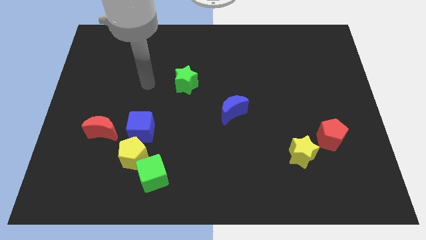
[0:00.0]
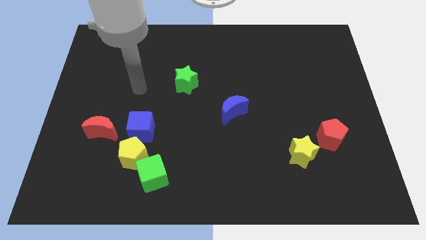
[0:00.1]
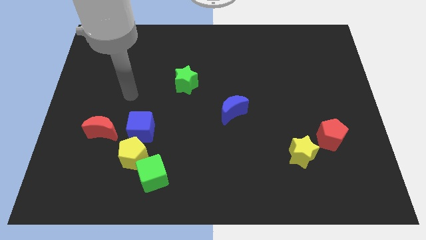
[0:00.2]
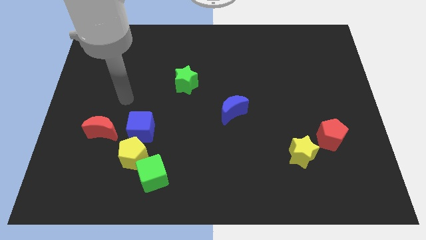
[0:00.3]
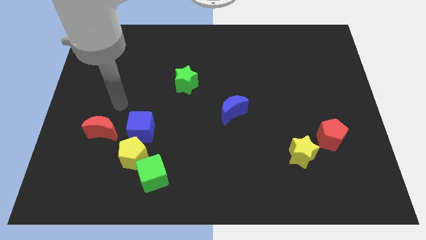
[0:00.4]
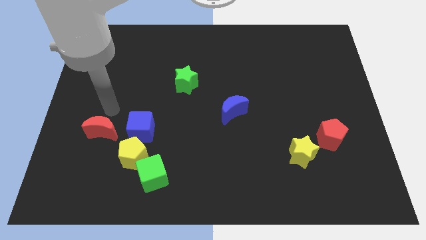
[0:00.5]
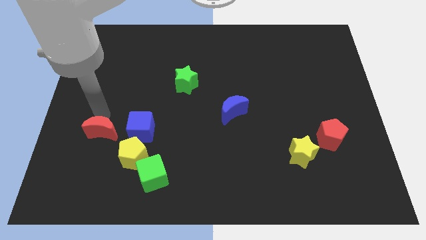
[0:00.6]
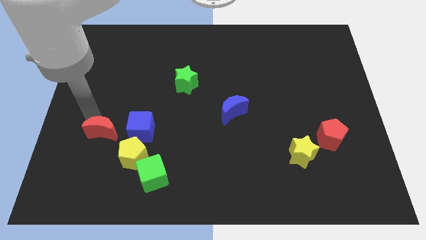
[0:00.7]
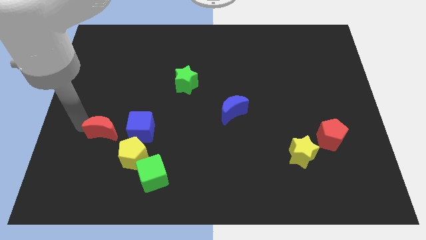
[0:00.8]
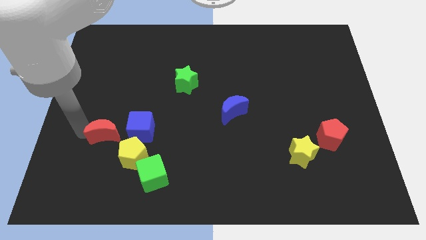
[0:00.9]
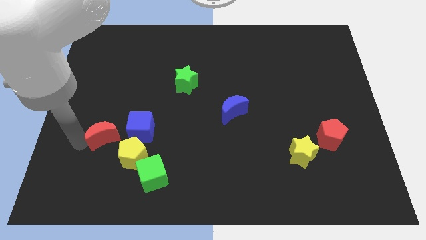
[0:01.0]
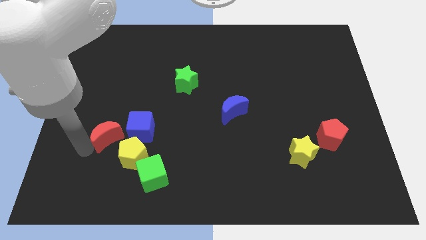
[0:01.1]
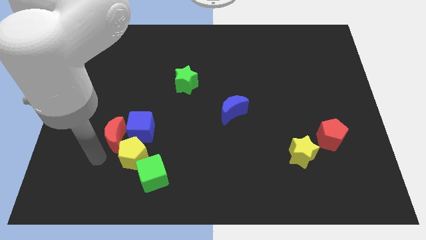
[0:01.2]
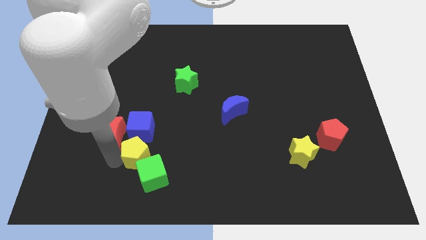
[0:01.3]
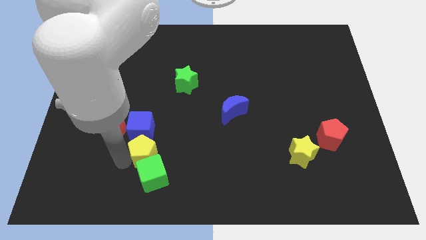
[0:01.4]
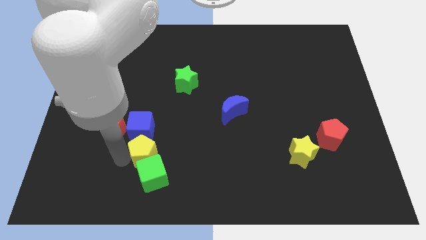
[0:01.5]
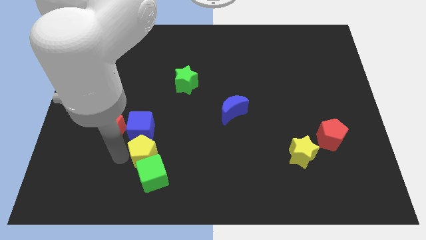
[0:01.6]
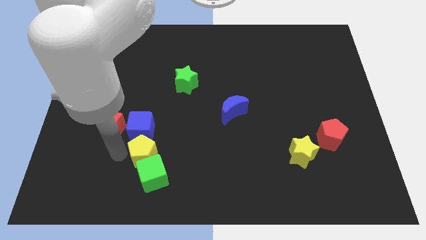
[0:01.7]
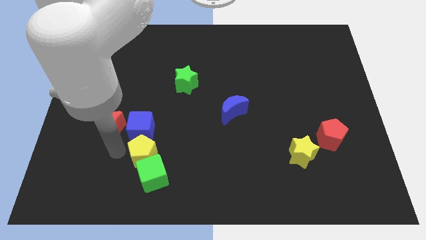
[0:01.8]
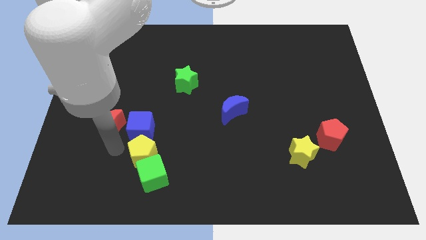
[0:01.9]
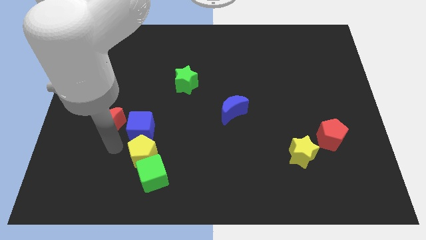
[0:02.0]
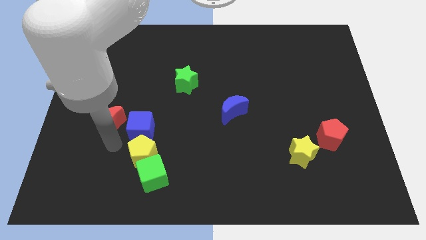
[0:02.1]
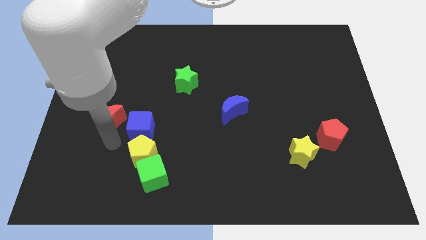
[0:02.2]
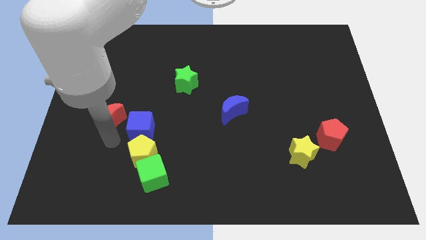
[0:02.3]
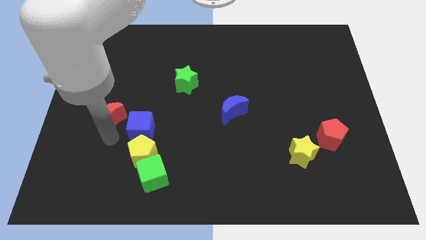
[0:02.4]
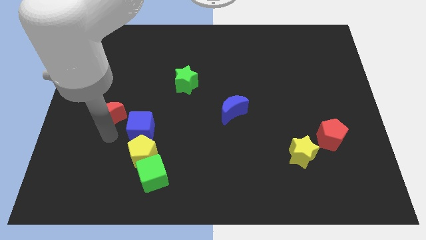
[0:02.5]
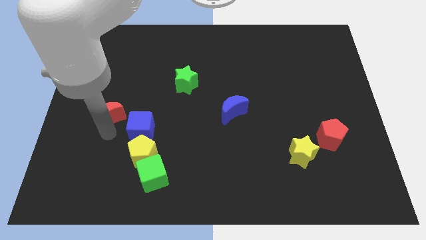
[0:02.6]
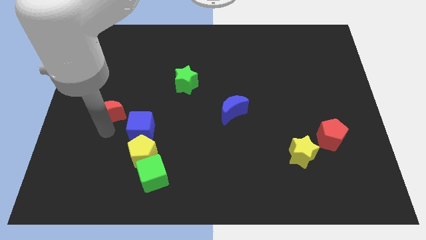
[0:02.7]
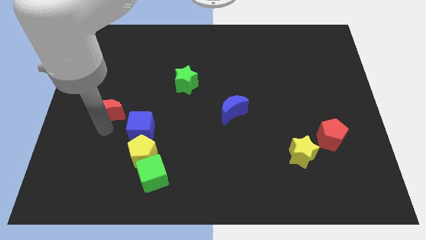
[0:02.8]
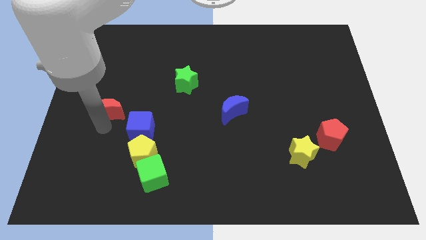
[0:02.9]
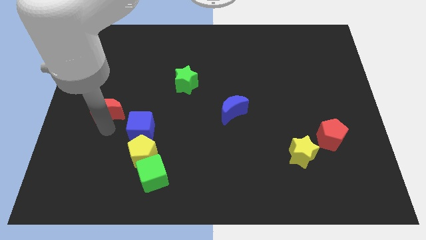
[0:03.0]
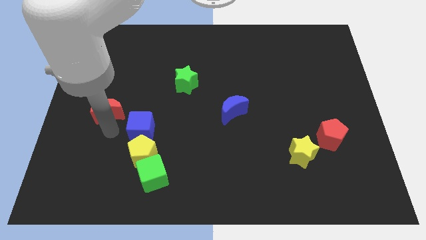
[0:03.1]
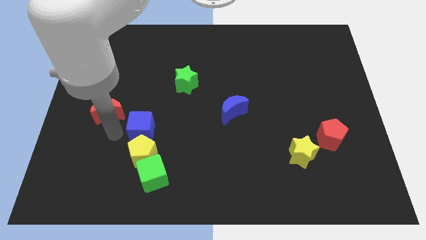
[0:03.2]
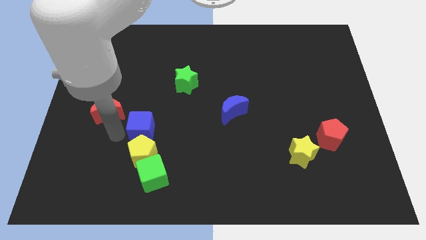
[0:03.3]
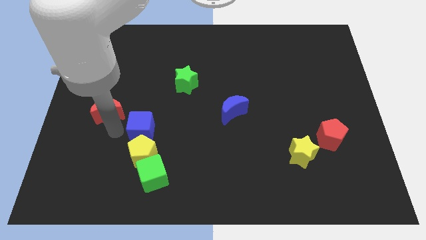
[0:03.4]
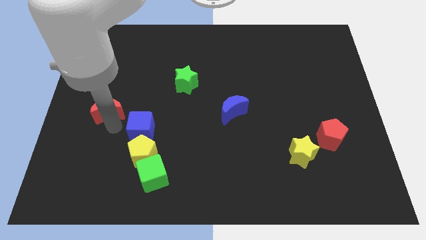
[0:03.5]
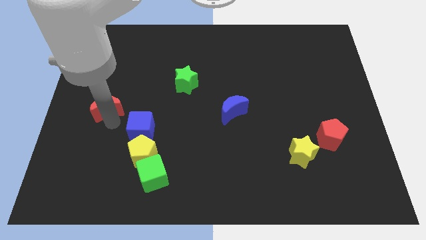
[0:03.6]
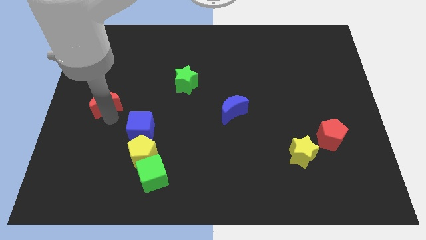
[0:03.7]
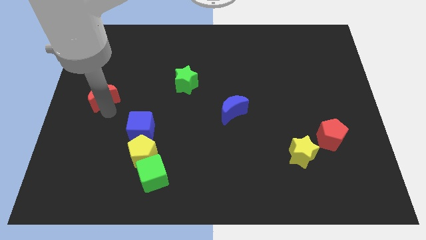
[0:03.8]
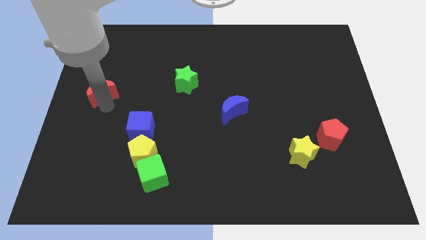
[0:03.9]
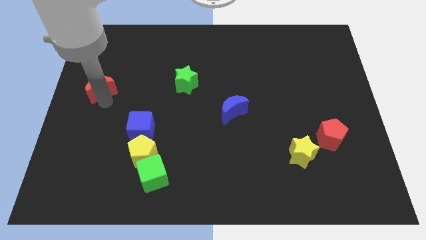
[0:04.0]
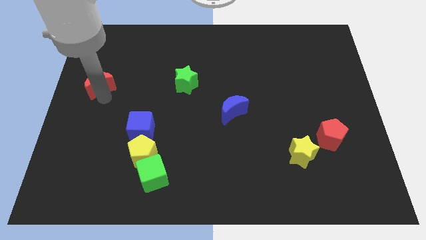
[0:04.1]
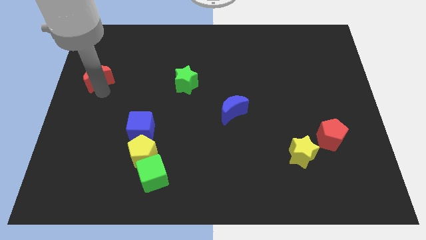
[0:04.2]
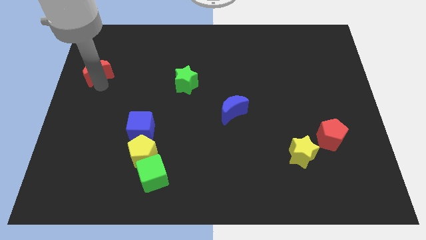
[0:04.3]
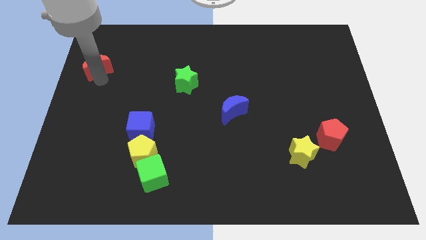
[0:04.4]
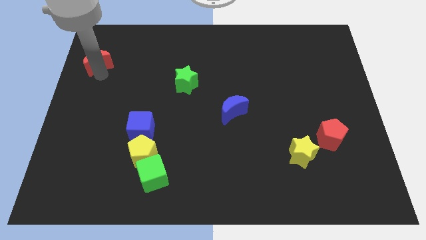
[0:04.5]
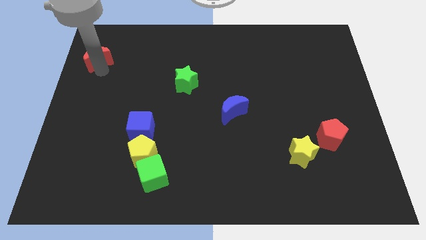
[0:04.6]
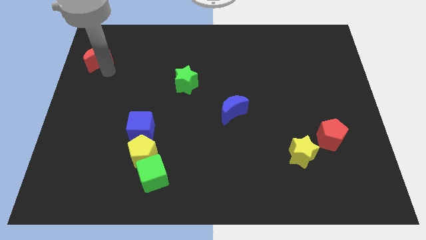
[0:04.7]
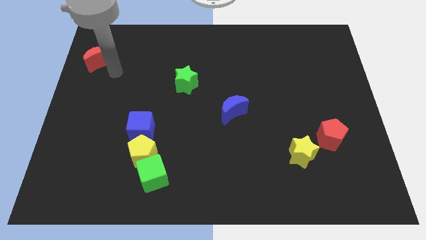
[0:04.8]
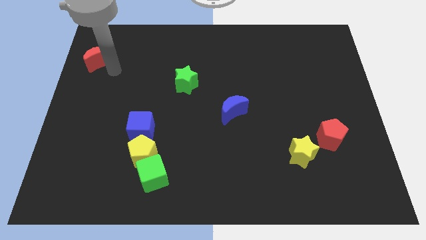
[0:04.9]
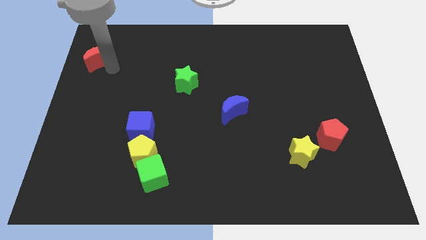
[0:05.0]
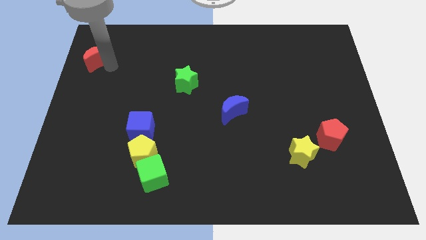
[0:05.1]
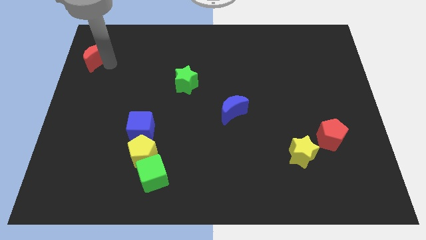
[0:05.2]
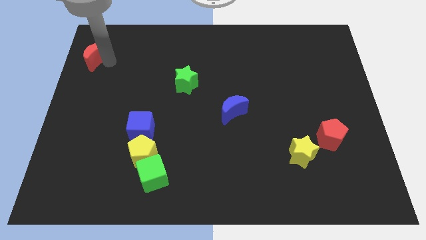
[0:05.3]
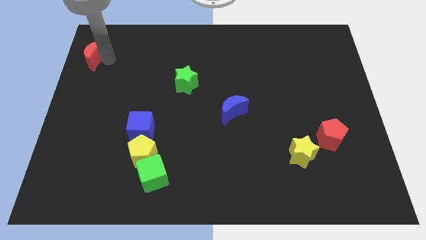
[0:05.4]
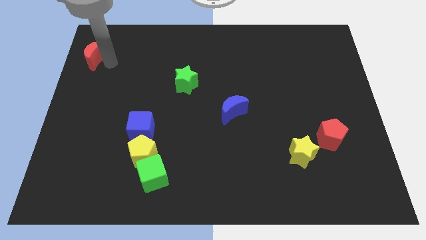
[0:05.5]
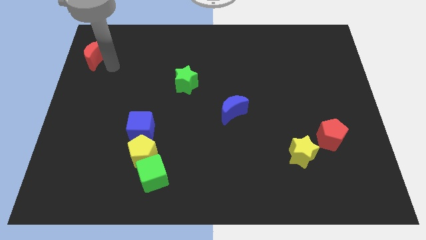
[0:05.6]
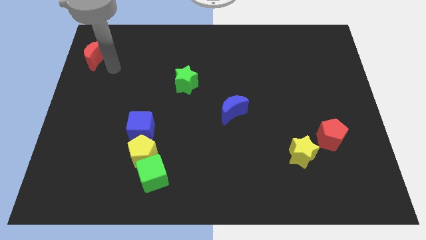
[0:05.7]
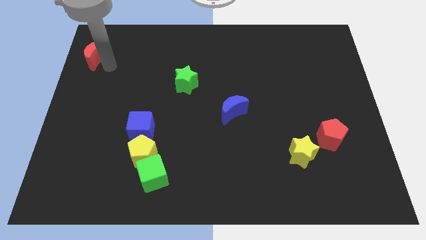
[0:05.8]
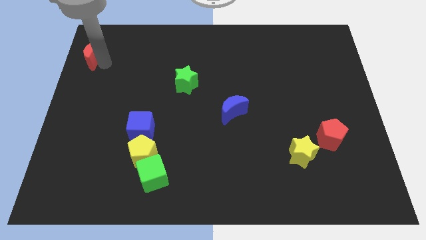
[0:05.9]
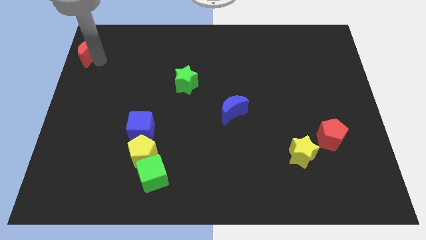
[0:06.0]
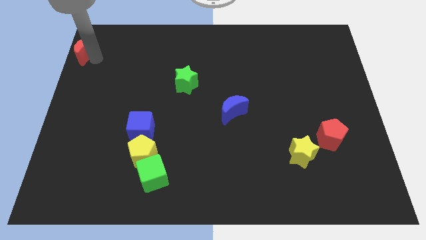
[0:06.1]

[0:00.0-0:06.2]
move the red moon to the top left of the board

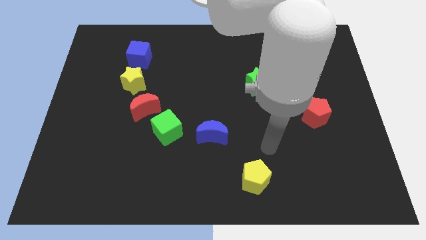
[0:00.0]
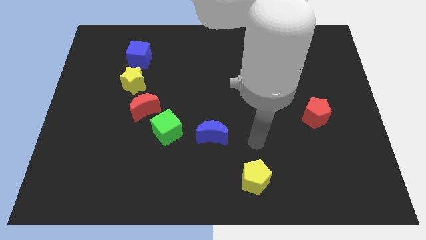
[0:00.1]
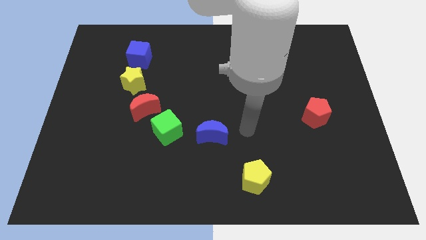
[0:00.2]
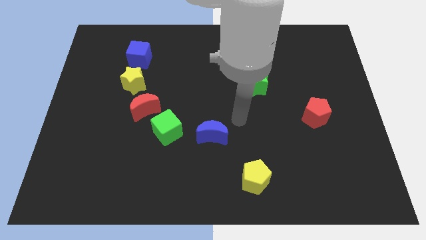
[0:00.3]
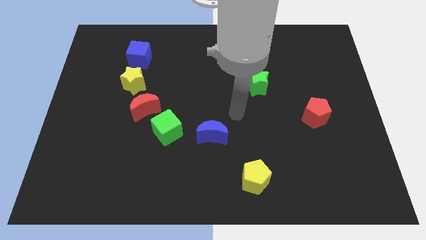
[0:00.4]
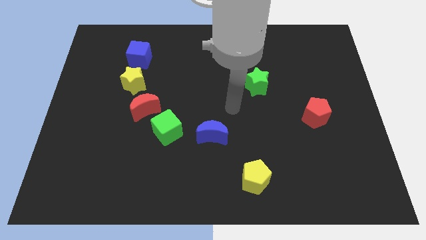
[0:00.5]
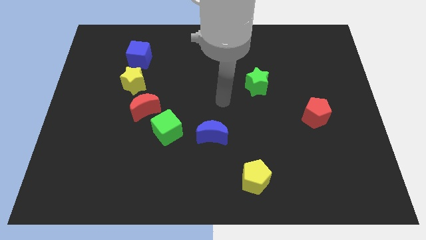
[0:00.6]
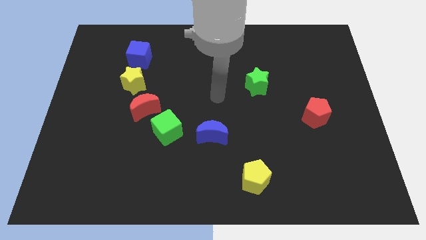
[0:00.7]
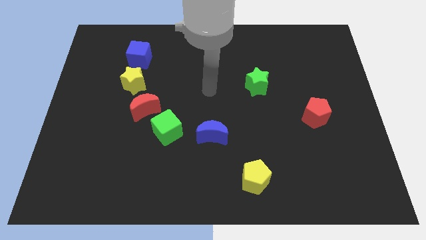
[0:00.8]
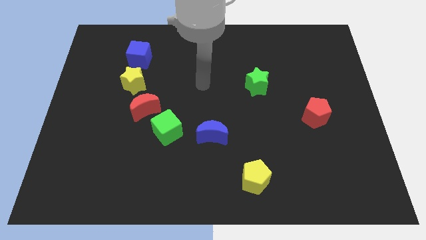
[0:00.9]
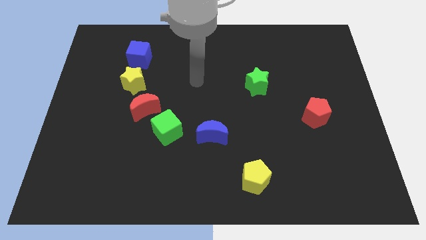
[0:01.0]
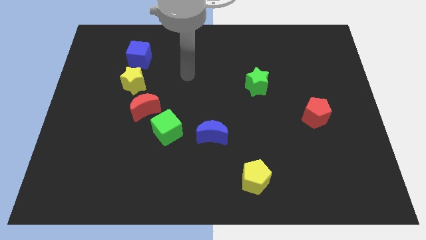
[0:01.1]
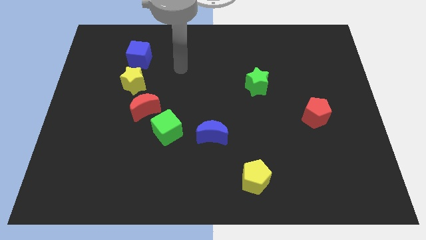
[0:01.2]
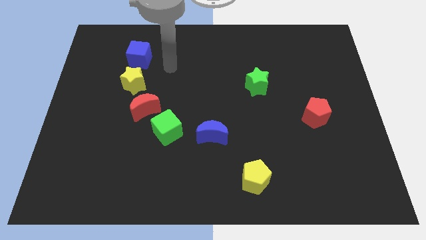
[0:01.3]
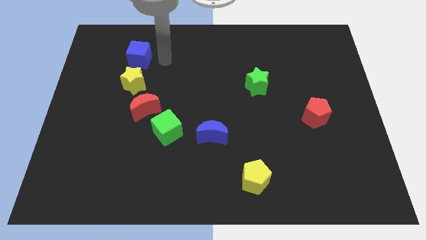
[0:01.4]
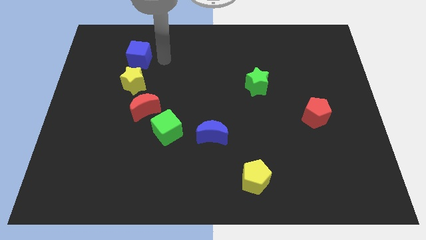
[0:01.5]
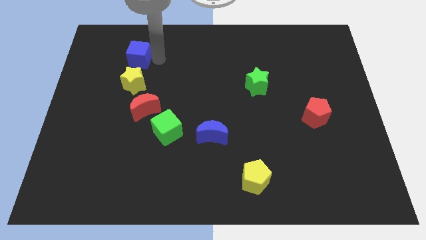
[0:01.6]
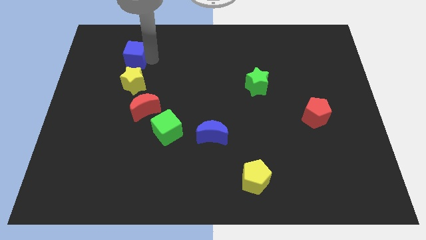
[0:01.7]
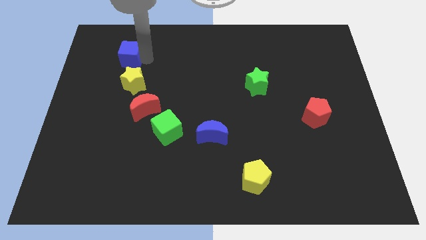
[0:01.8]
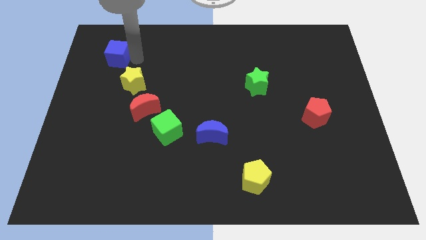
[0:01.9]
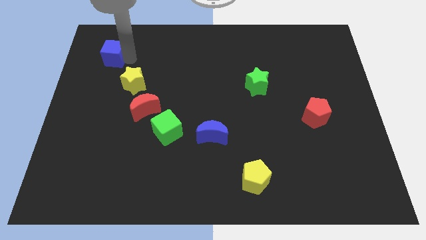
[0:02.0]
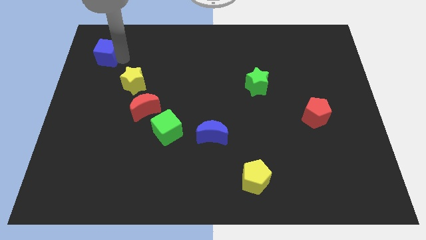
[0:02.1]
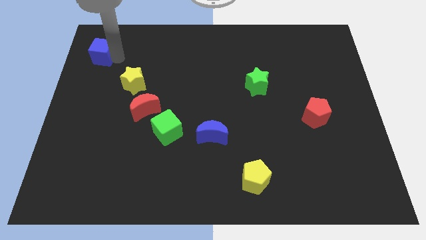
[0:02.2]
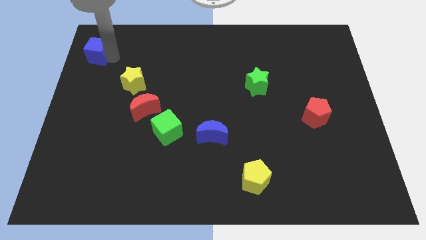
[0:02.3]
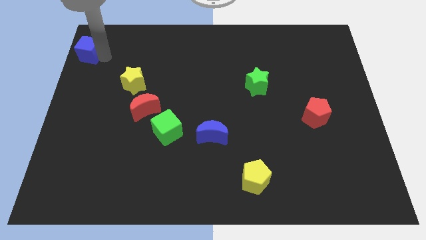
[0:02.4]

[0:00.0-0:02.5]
slide the blue cube to the top left corner
